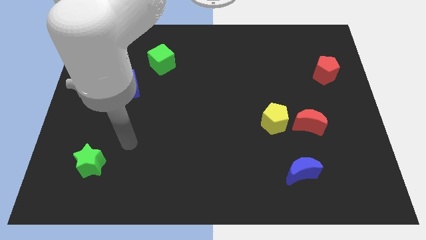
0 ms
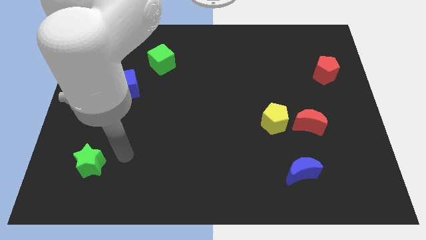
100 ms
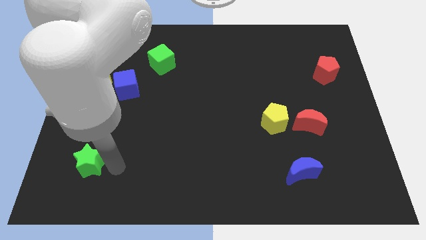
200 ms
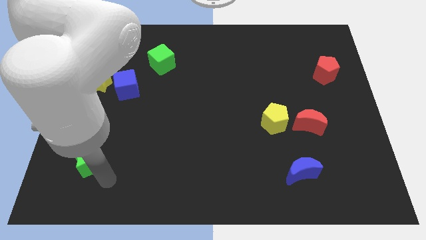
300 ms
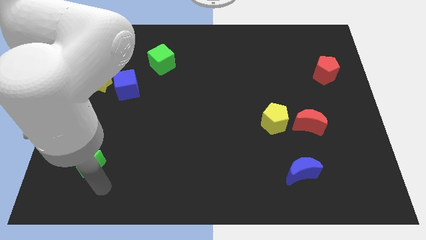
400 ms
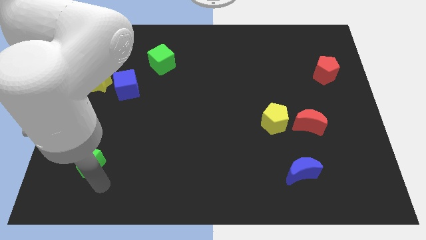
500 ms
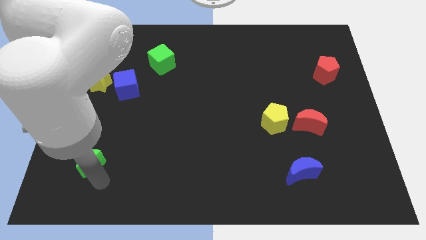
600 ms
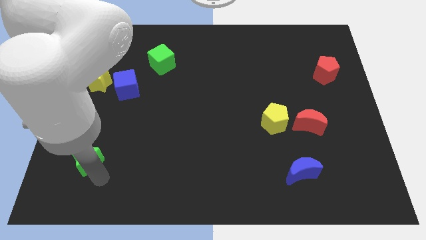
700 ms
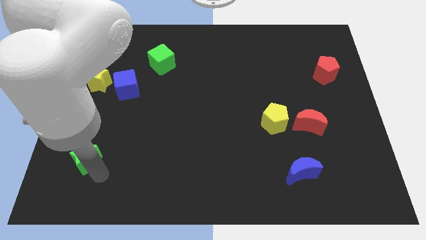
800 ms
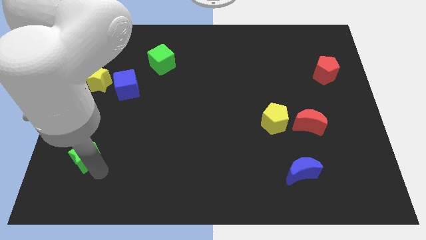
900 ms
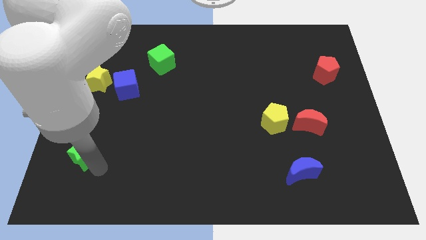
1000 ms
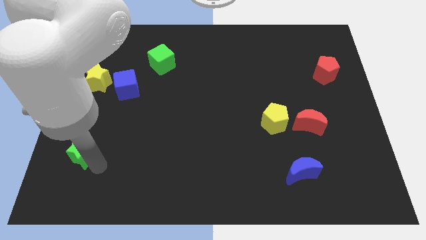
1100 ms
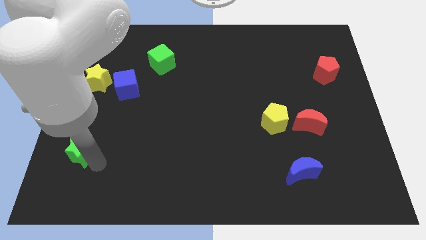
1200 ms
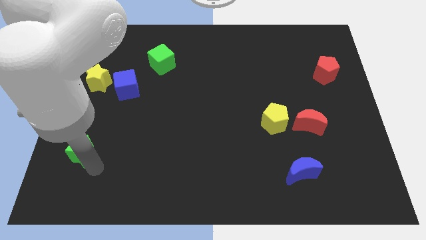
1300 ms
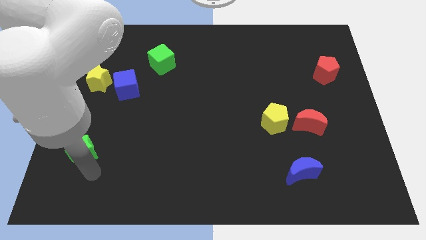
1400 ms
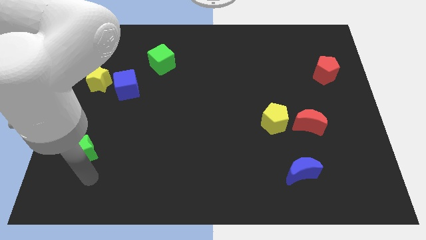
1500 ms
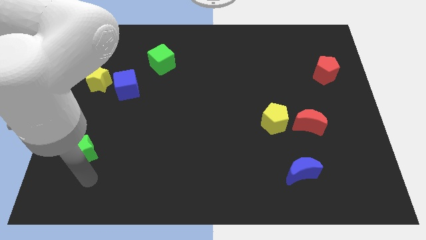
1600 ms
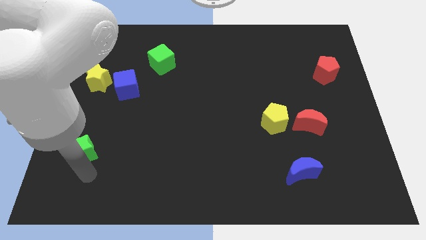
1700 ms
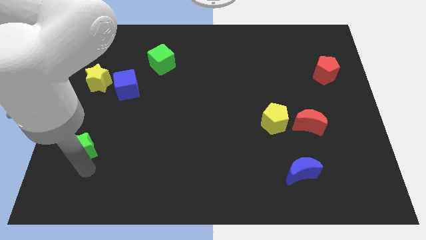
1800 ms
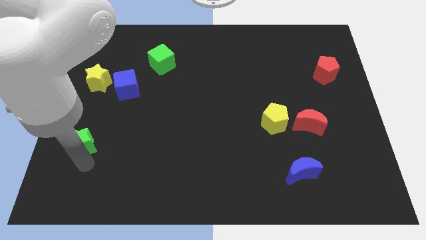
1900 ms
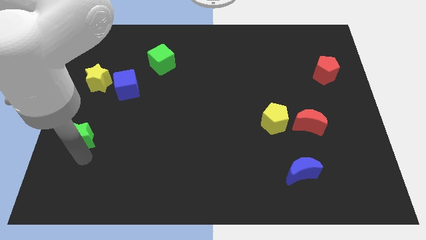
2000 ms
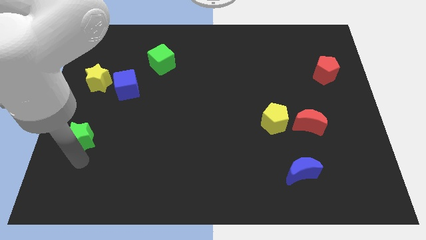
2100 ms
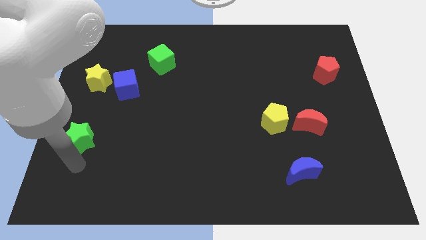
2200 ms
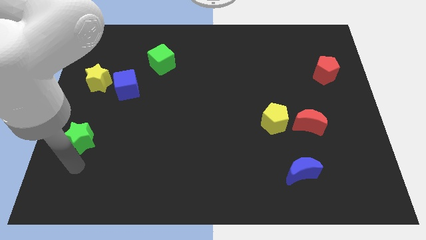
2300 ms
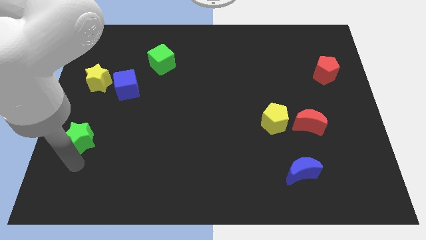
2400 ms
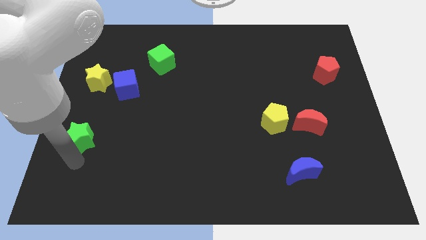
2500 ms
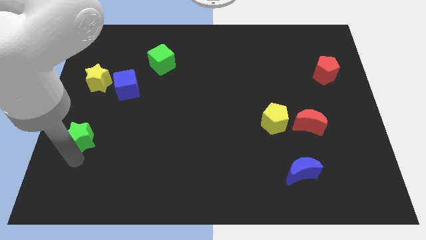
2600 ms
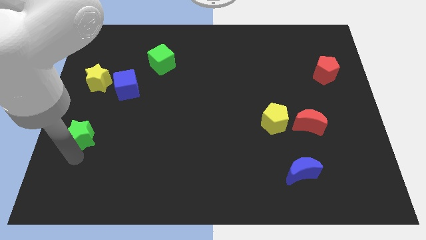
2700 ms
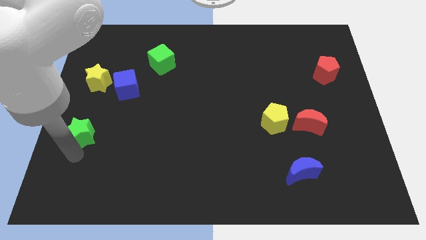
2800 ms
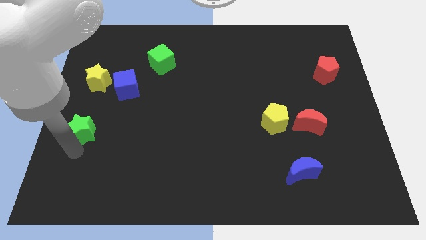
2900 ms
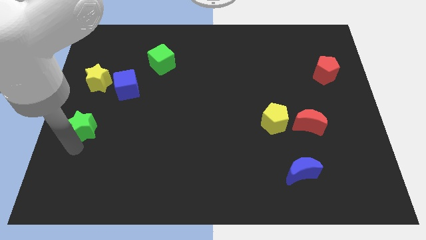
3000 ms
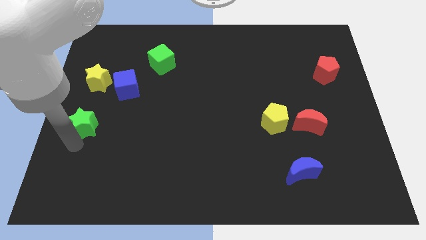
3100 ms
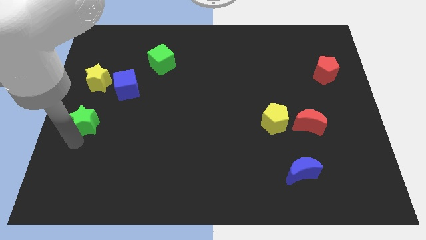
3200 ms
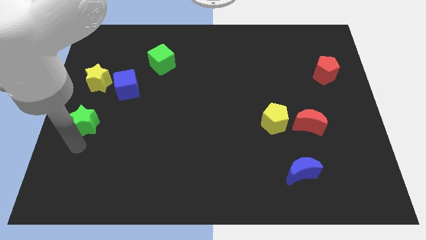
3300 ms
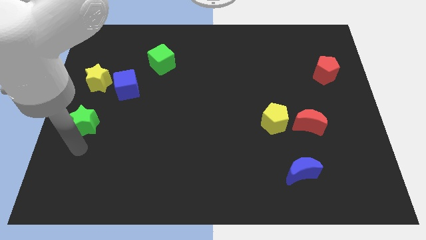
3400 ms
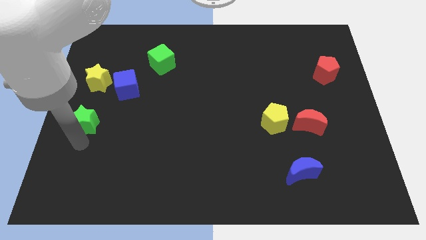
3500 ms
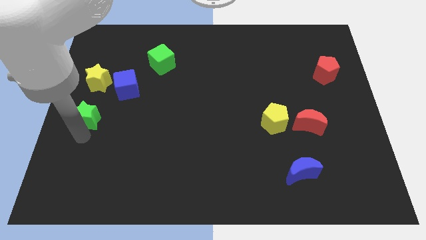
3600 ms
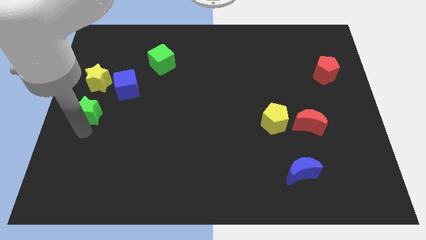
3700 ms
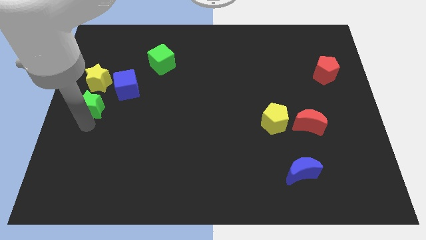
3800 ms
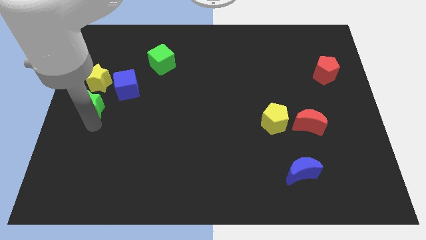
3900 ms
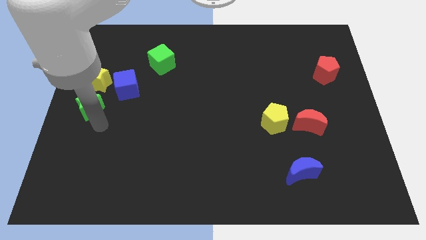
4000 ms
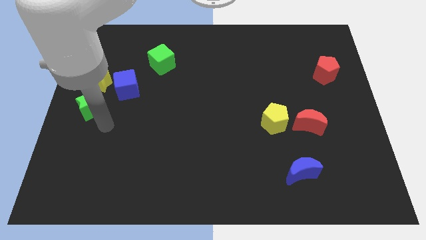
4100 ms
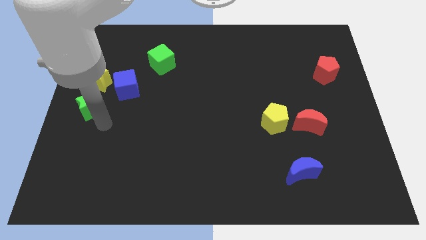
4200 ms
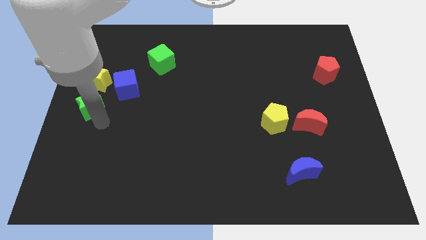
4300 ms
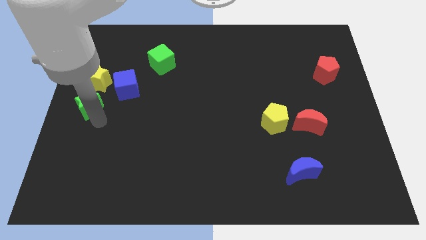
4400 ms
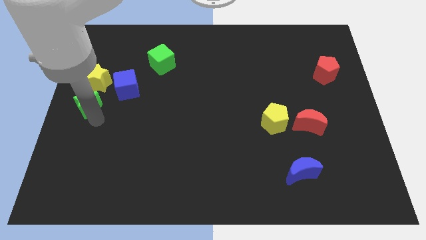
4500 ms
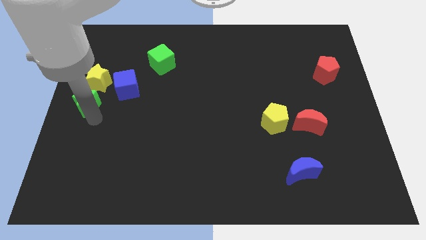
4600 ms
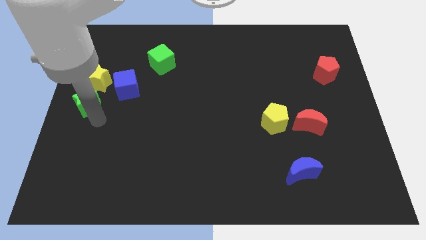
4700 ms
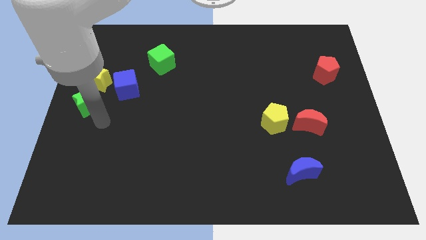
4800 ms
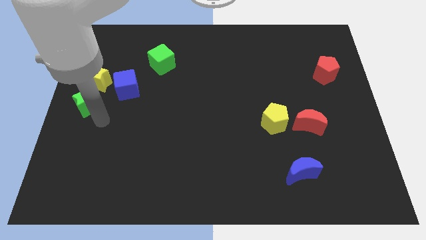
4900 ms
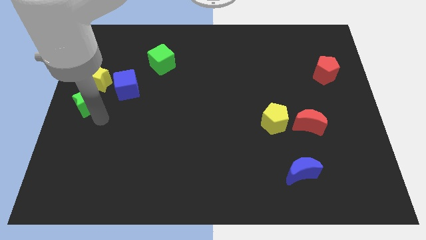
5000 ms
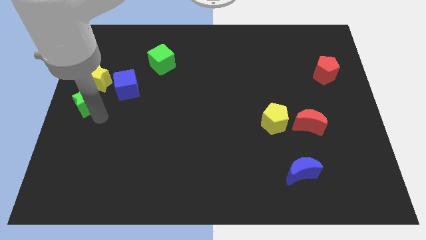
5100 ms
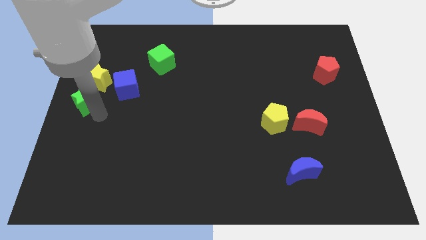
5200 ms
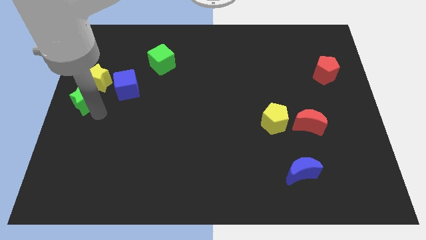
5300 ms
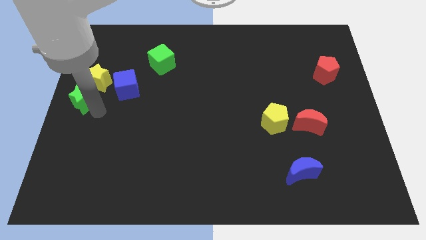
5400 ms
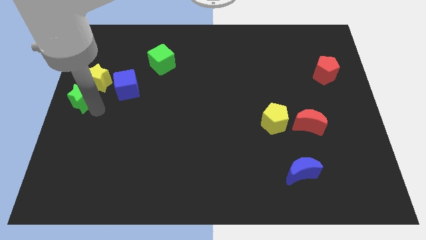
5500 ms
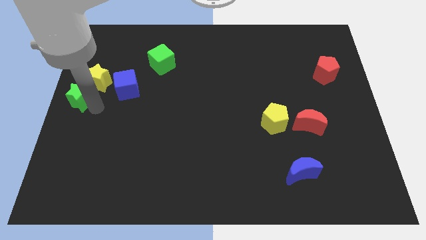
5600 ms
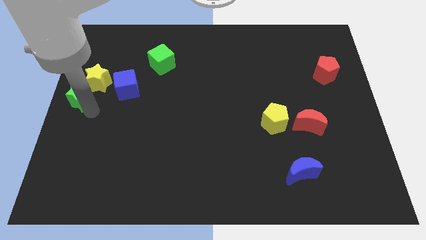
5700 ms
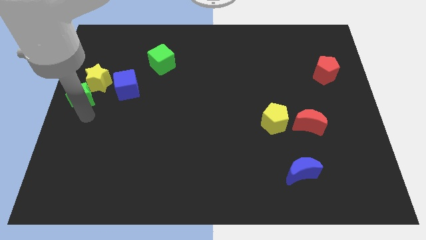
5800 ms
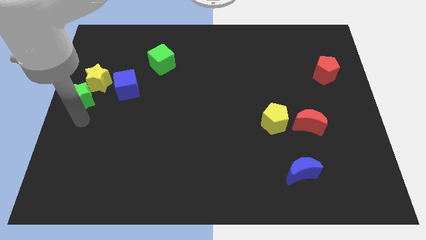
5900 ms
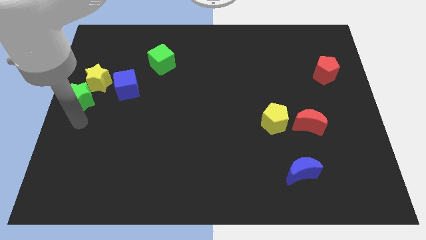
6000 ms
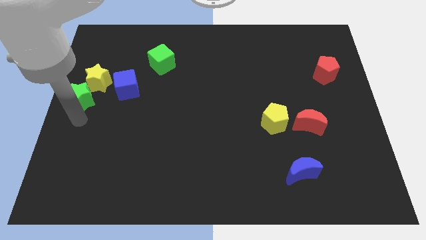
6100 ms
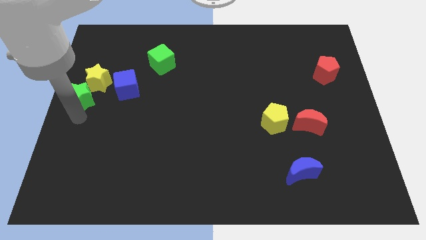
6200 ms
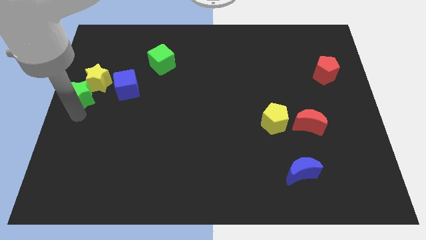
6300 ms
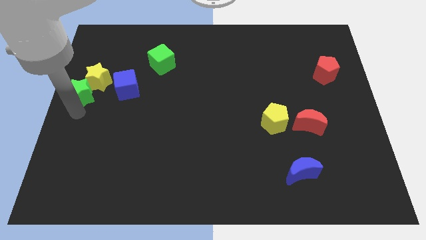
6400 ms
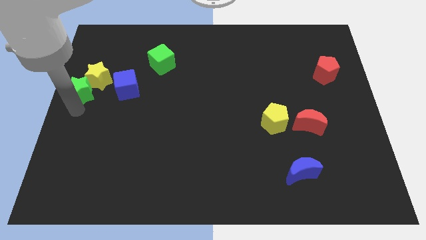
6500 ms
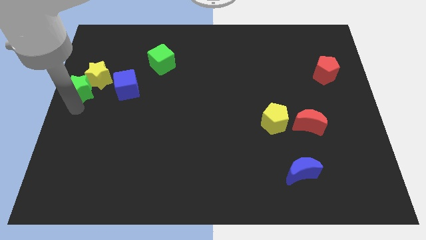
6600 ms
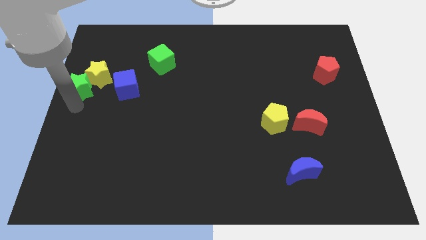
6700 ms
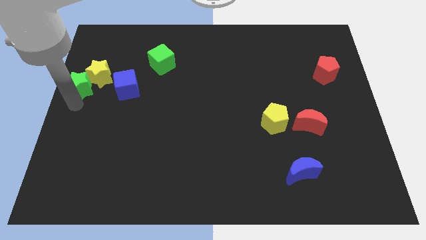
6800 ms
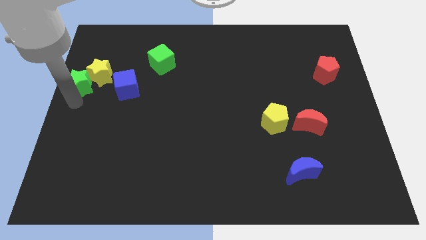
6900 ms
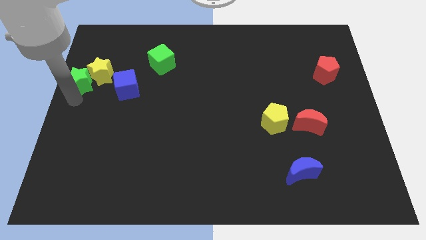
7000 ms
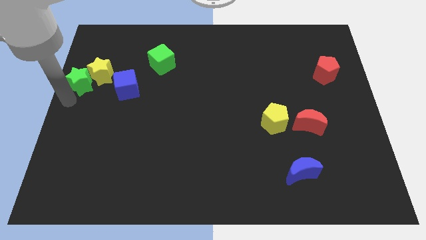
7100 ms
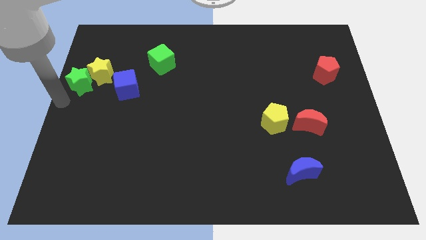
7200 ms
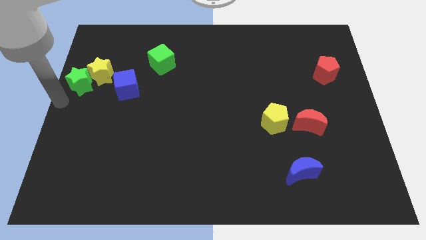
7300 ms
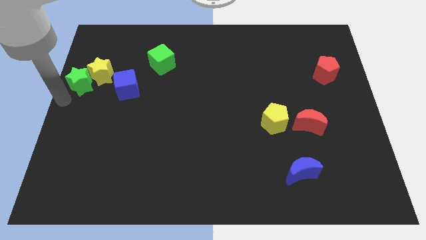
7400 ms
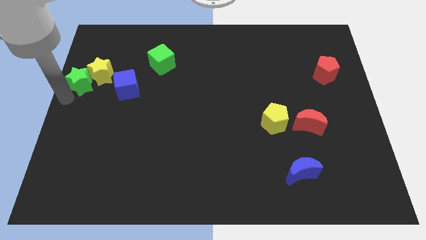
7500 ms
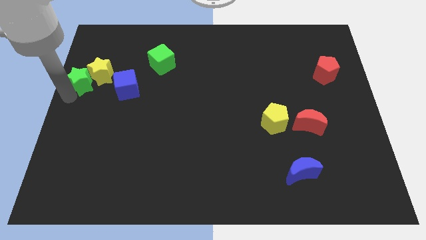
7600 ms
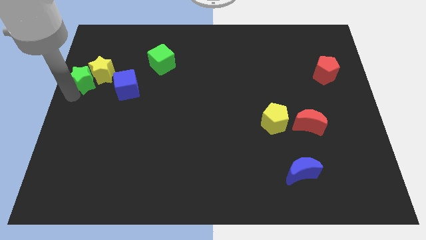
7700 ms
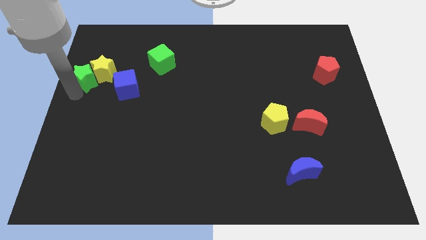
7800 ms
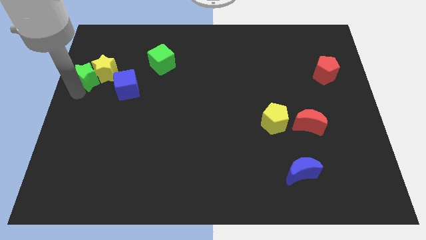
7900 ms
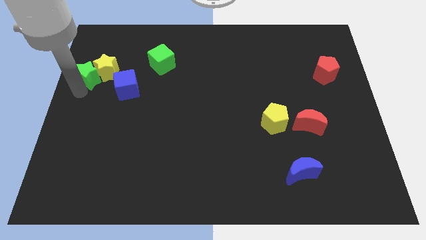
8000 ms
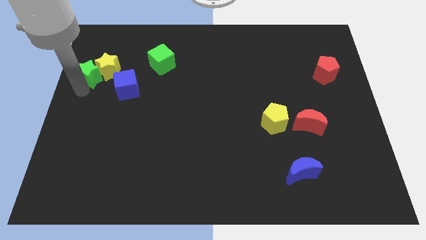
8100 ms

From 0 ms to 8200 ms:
slide the green star diagonally up and to the left of the blue cube
